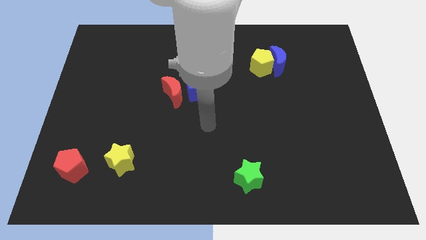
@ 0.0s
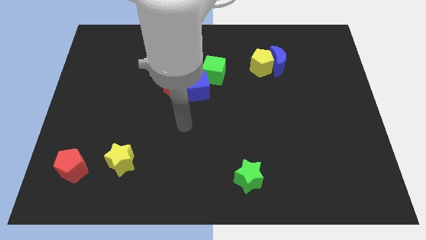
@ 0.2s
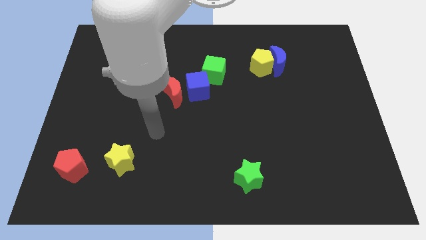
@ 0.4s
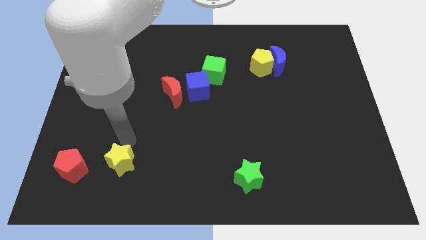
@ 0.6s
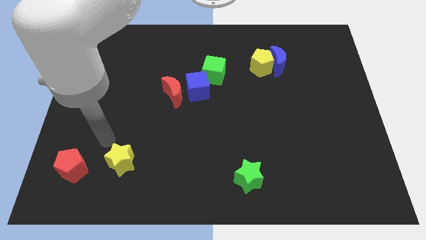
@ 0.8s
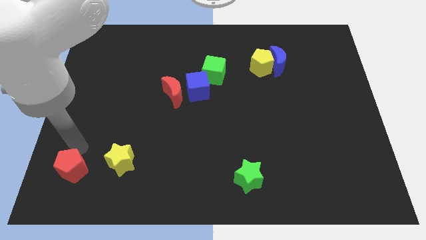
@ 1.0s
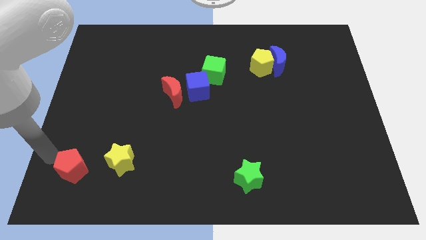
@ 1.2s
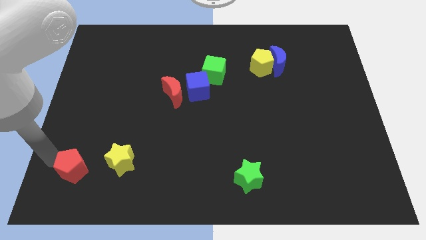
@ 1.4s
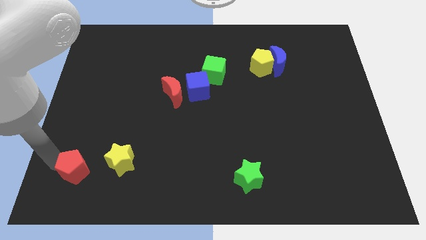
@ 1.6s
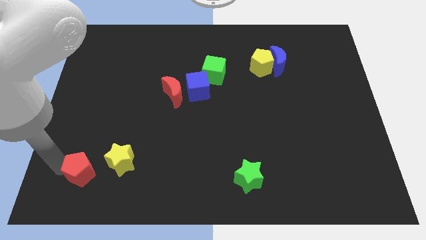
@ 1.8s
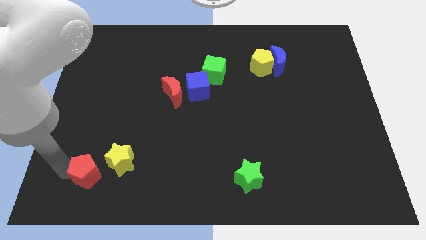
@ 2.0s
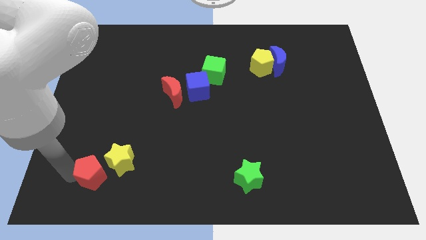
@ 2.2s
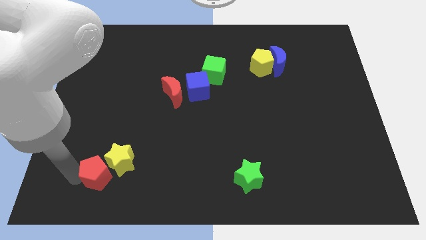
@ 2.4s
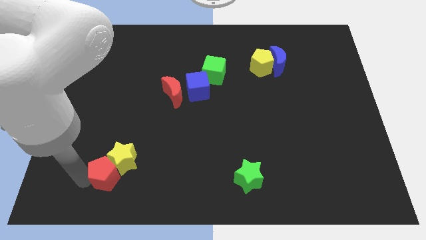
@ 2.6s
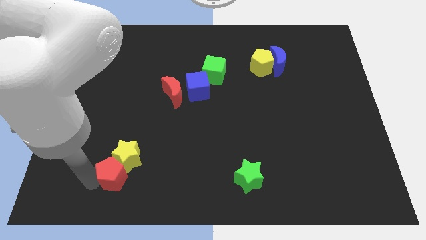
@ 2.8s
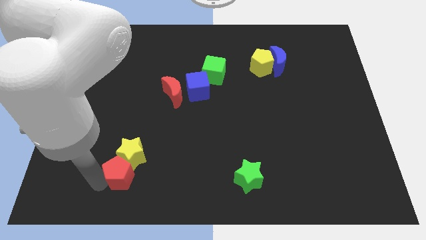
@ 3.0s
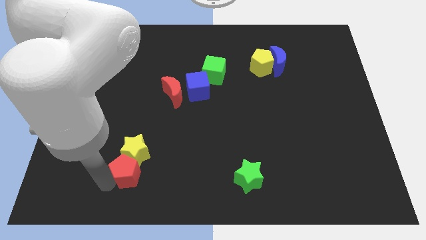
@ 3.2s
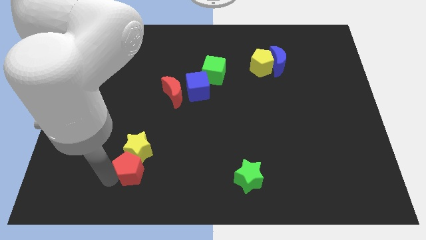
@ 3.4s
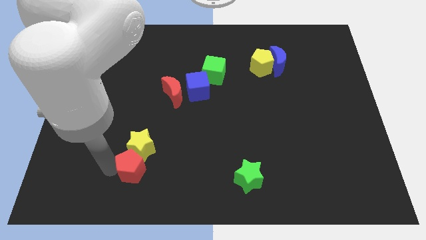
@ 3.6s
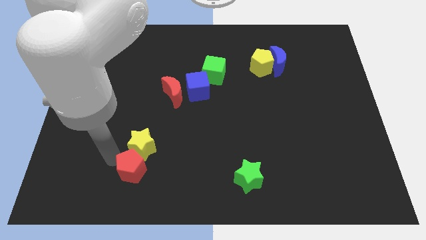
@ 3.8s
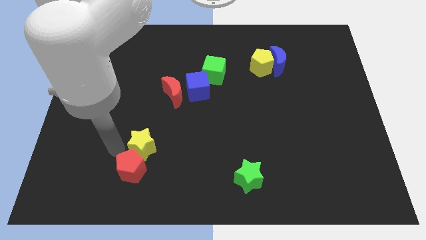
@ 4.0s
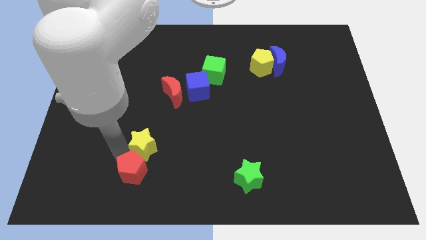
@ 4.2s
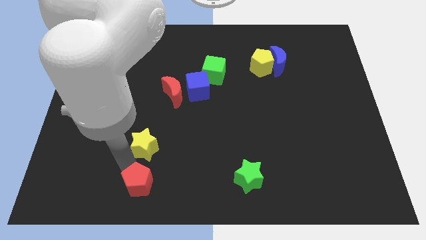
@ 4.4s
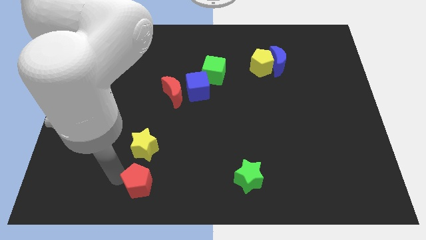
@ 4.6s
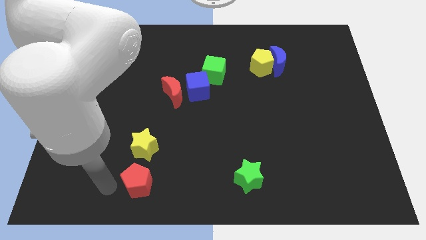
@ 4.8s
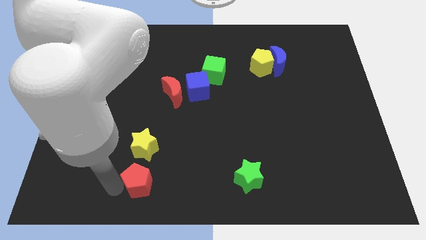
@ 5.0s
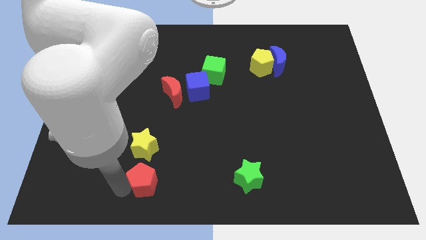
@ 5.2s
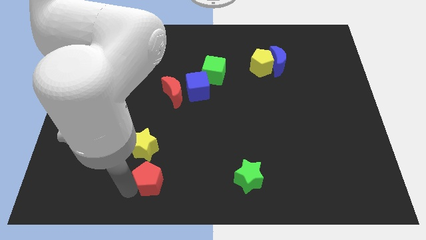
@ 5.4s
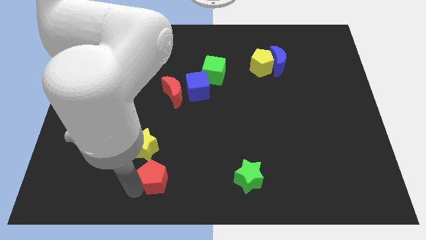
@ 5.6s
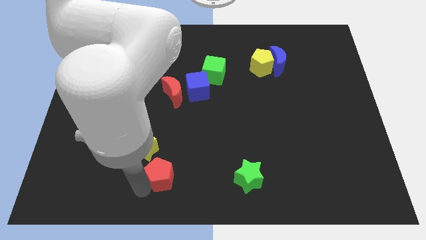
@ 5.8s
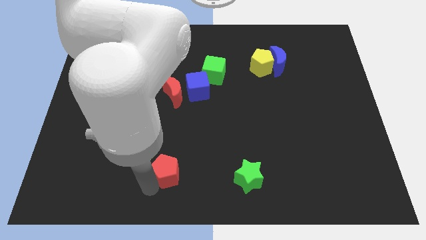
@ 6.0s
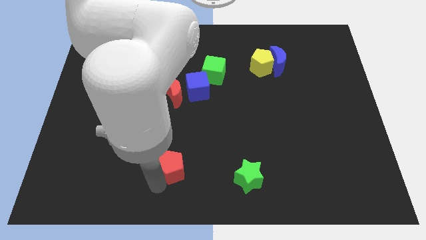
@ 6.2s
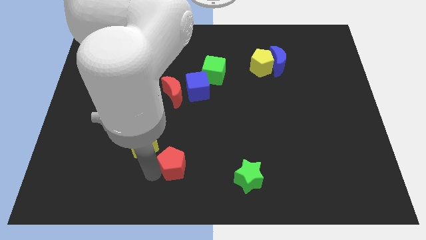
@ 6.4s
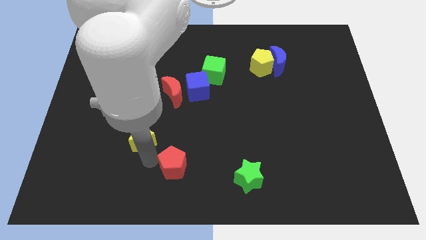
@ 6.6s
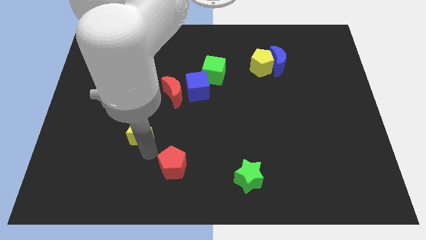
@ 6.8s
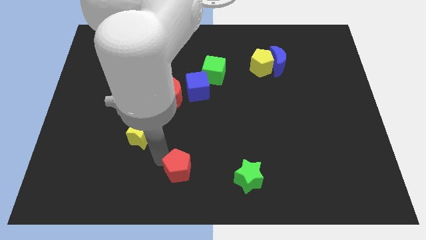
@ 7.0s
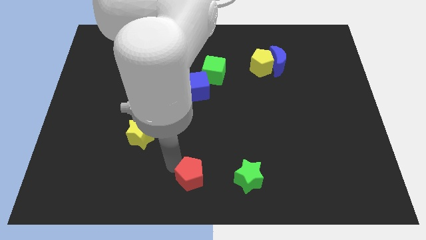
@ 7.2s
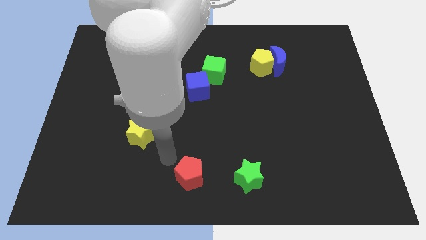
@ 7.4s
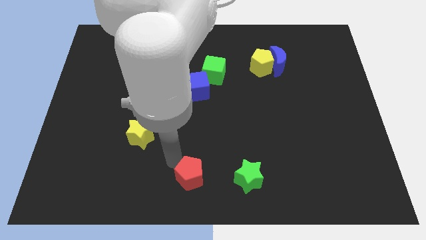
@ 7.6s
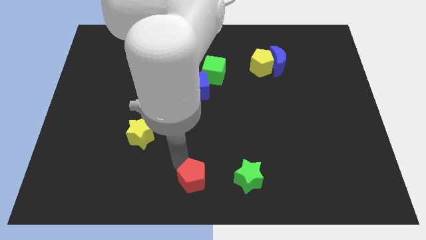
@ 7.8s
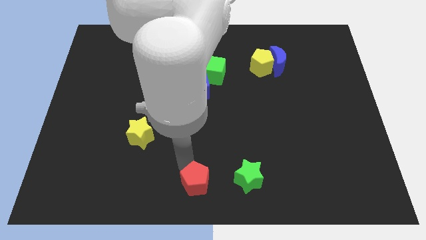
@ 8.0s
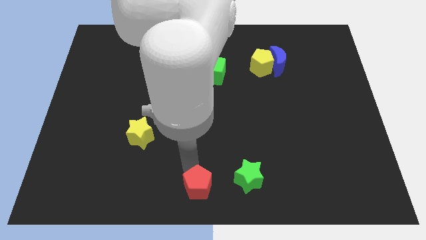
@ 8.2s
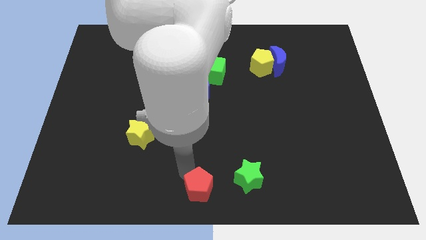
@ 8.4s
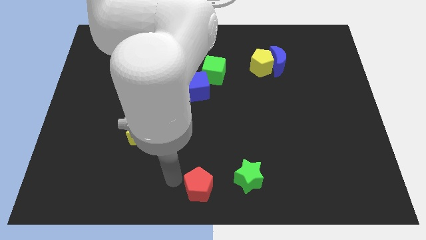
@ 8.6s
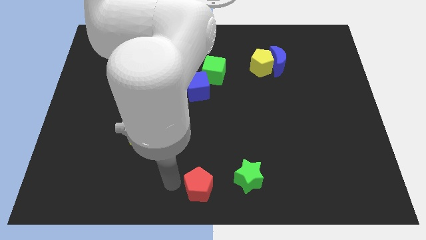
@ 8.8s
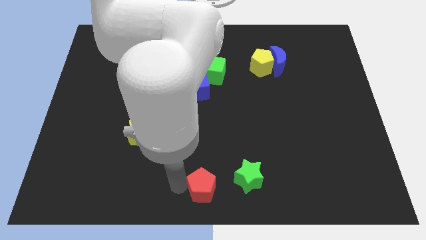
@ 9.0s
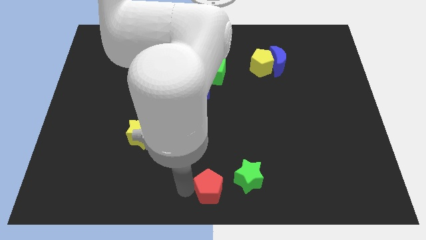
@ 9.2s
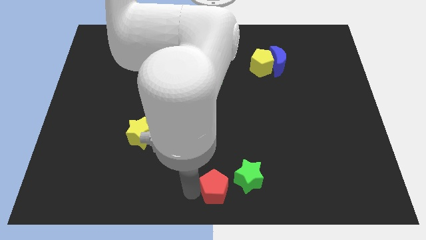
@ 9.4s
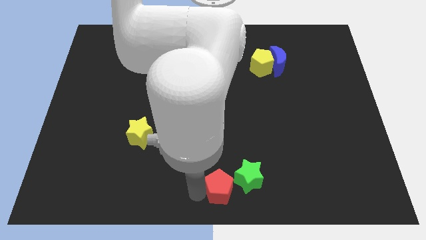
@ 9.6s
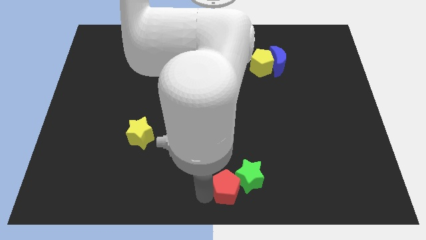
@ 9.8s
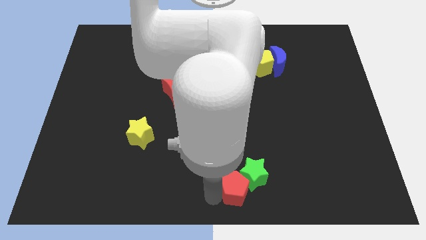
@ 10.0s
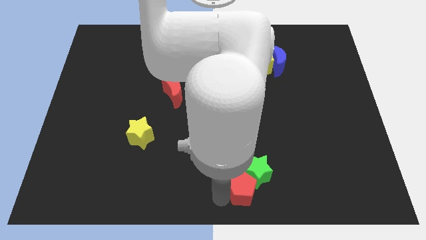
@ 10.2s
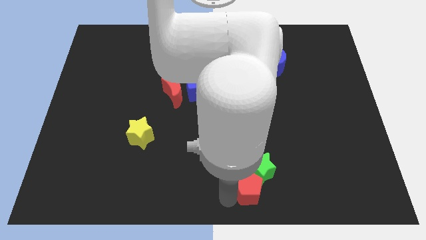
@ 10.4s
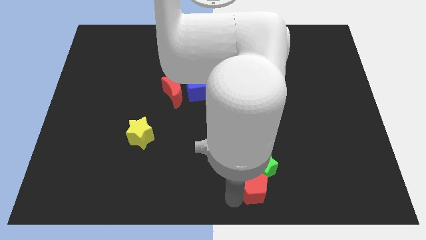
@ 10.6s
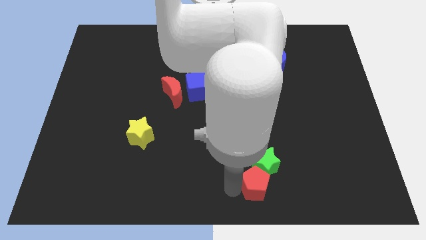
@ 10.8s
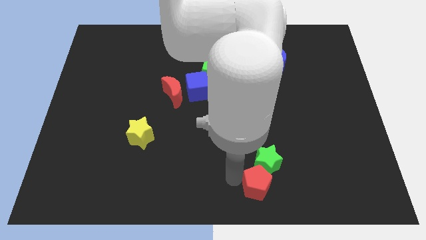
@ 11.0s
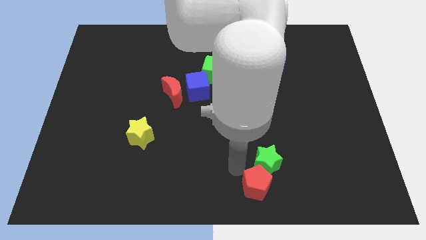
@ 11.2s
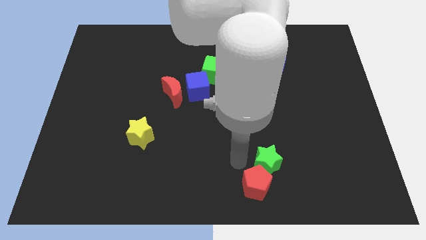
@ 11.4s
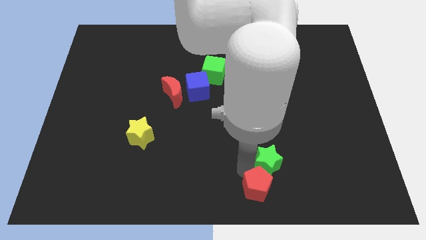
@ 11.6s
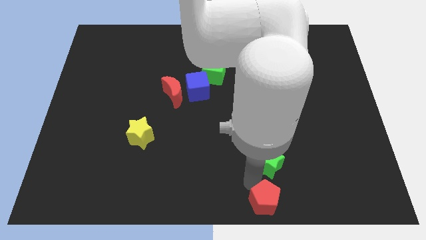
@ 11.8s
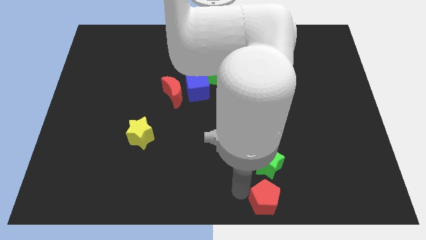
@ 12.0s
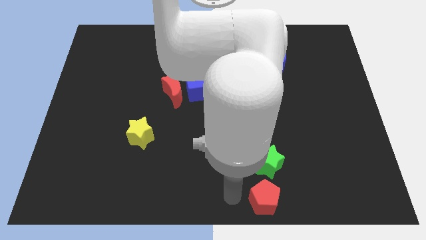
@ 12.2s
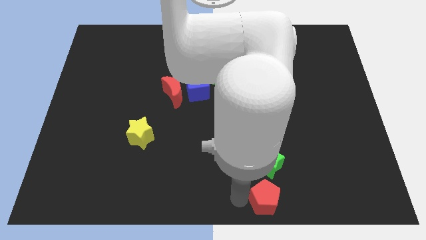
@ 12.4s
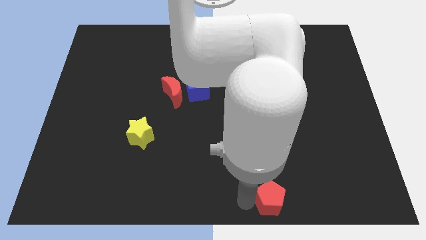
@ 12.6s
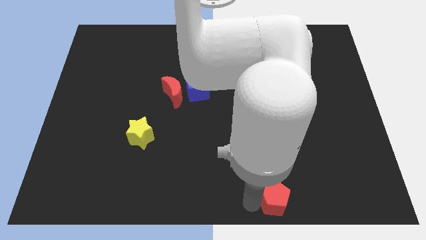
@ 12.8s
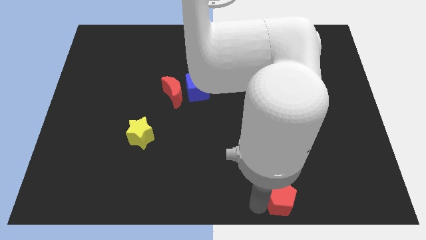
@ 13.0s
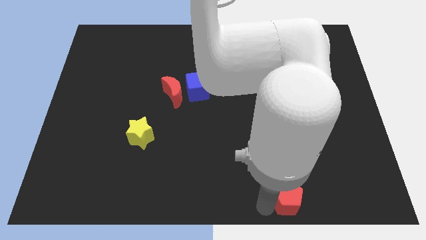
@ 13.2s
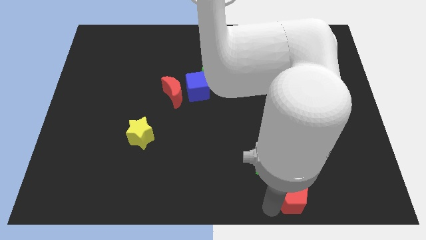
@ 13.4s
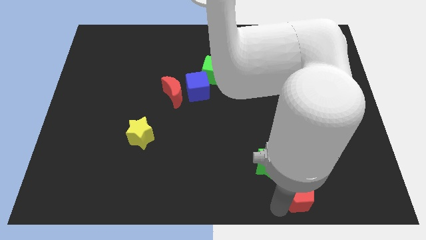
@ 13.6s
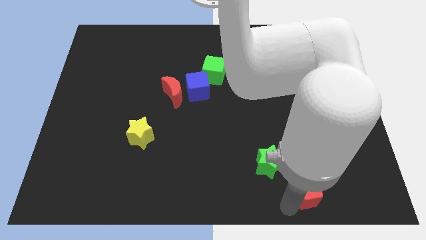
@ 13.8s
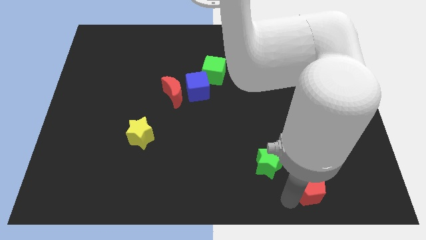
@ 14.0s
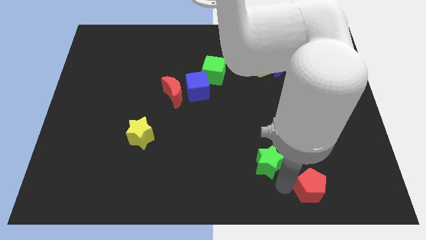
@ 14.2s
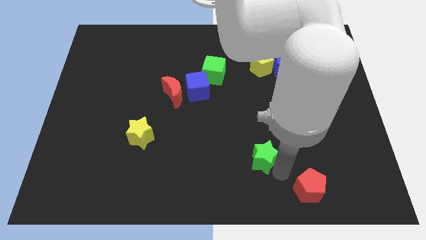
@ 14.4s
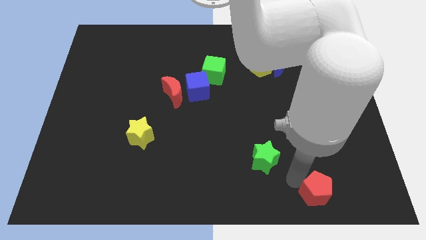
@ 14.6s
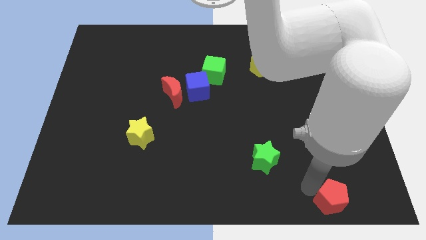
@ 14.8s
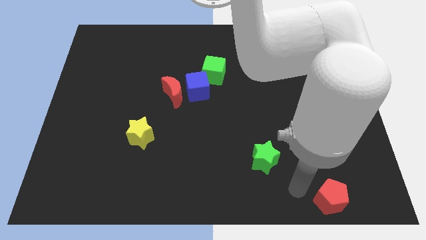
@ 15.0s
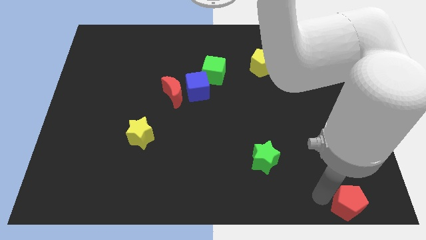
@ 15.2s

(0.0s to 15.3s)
move the red pentagon to the bottom right corner
